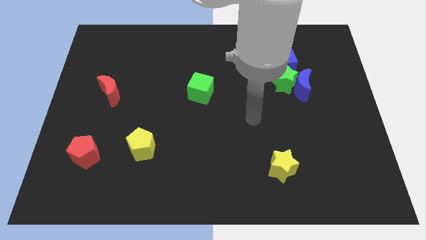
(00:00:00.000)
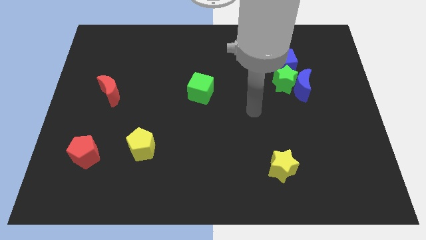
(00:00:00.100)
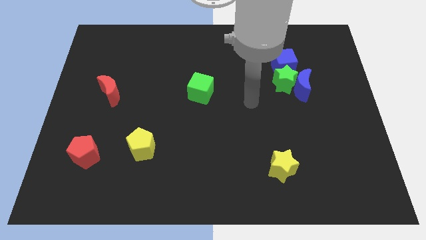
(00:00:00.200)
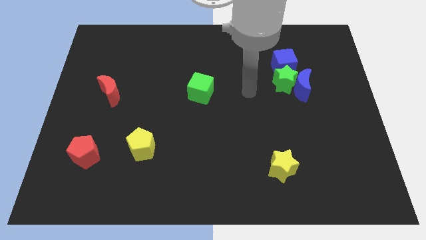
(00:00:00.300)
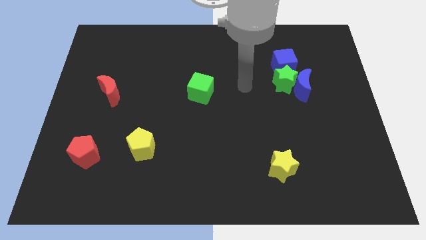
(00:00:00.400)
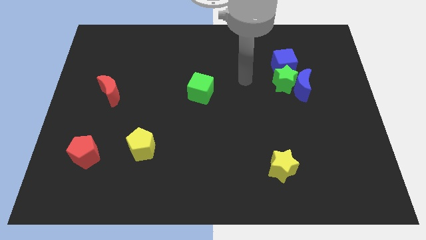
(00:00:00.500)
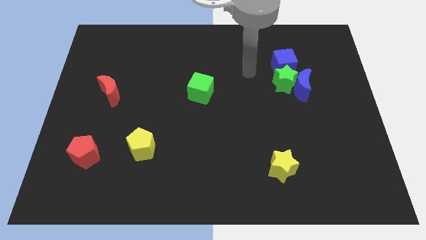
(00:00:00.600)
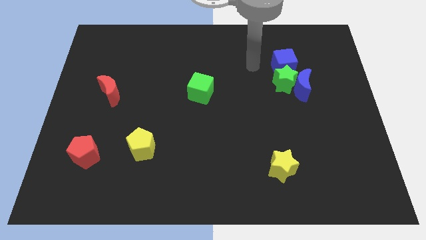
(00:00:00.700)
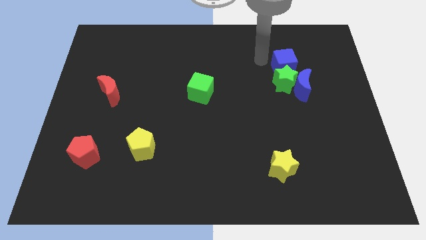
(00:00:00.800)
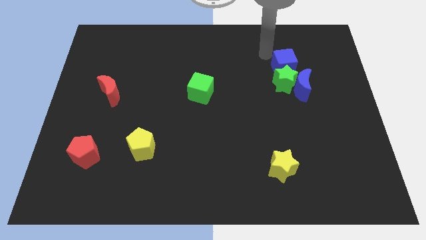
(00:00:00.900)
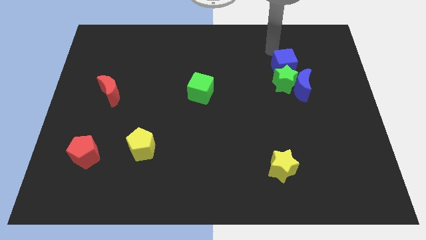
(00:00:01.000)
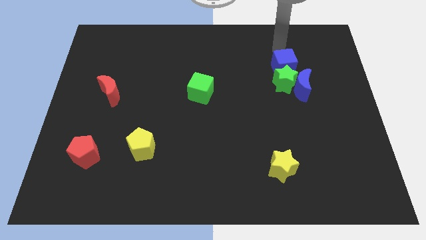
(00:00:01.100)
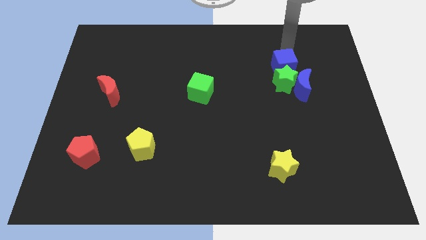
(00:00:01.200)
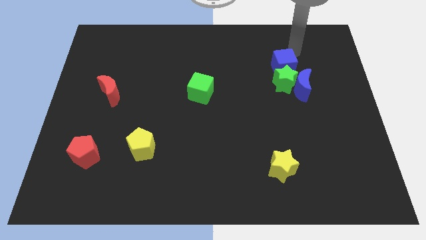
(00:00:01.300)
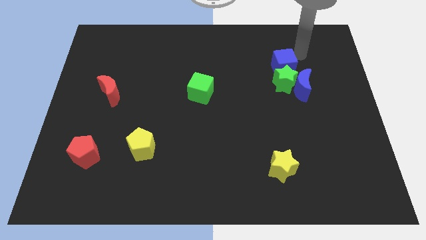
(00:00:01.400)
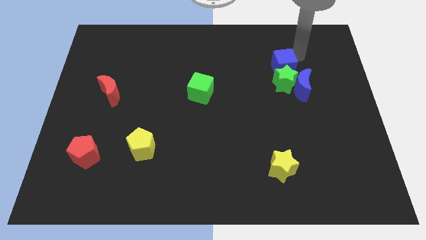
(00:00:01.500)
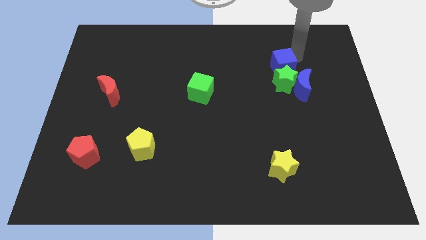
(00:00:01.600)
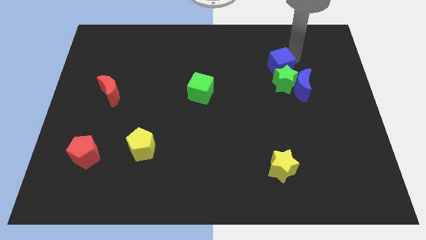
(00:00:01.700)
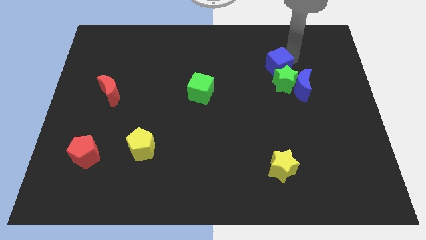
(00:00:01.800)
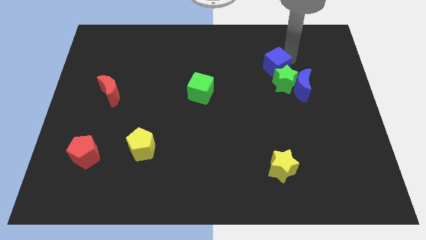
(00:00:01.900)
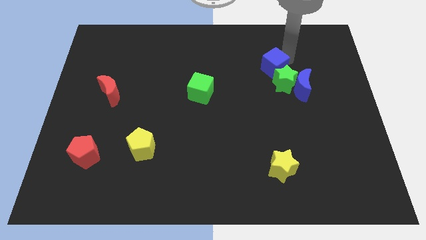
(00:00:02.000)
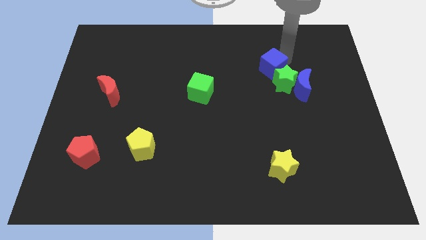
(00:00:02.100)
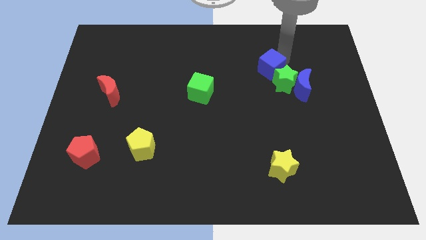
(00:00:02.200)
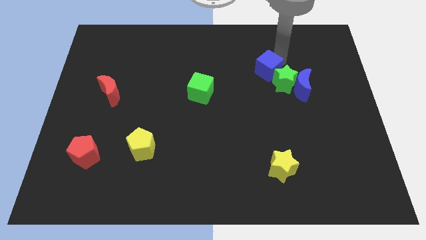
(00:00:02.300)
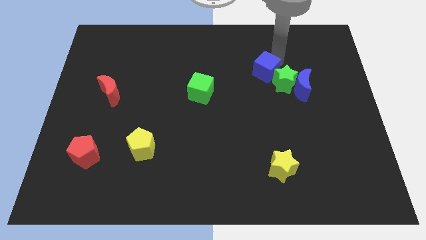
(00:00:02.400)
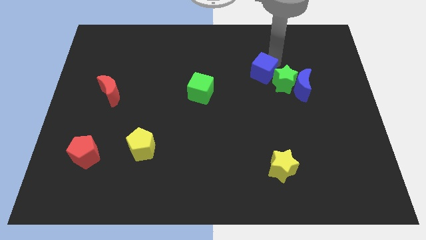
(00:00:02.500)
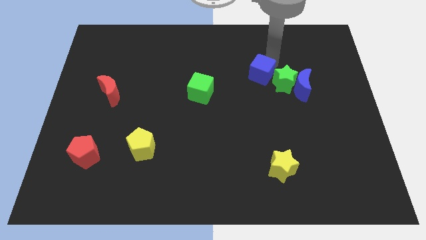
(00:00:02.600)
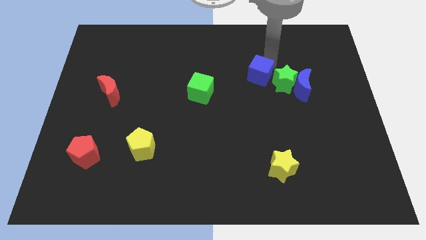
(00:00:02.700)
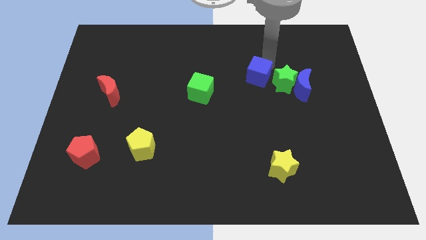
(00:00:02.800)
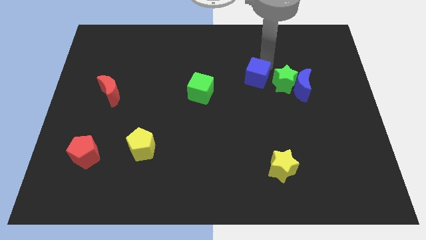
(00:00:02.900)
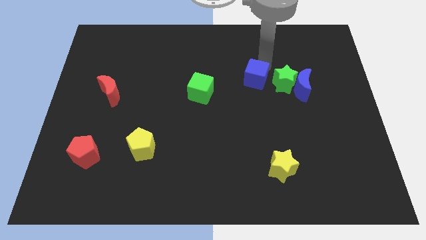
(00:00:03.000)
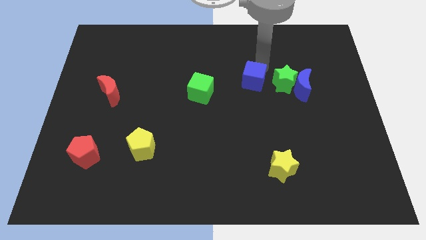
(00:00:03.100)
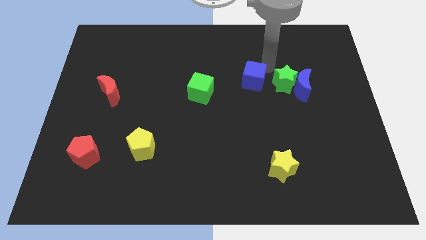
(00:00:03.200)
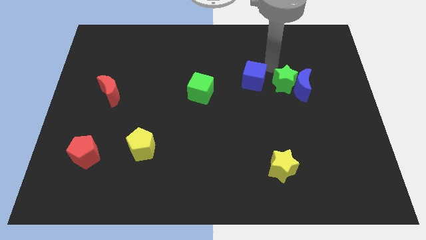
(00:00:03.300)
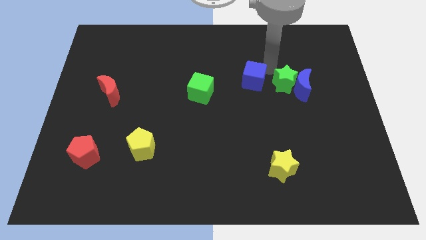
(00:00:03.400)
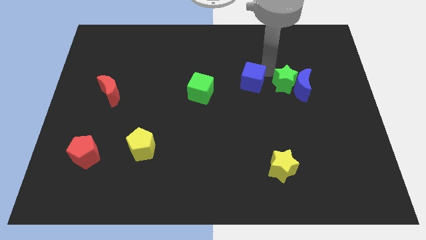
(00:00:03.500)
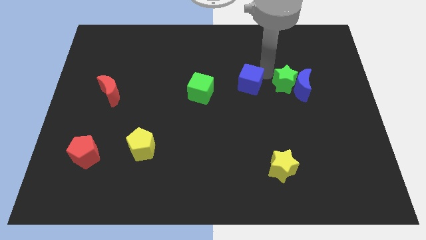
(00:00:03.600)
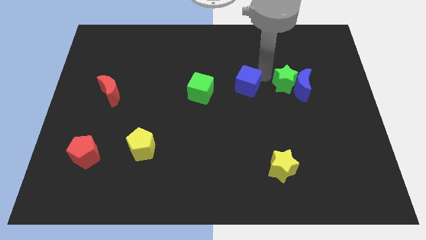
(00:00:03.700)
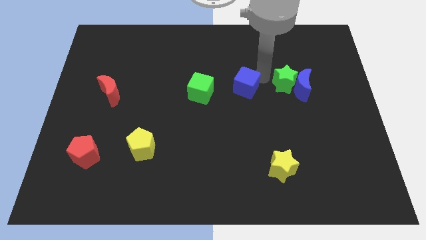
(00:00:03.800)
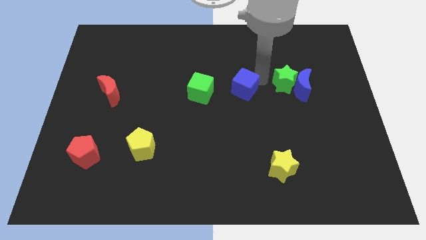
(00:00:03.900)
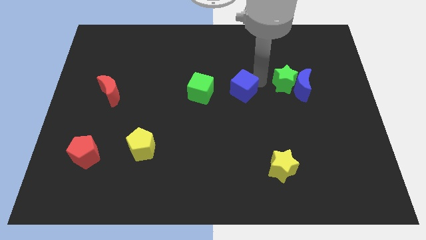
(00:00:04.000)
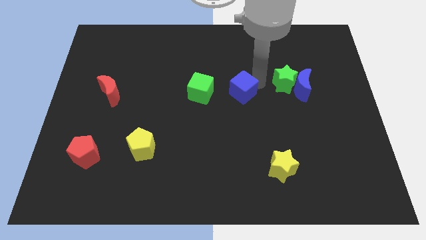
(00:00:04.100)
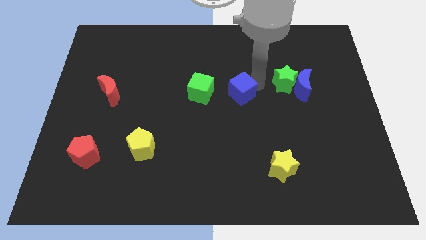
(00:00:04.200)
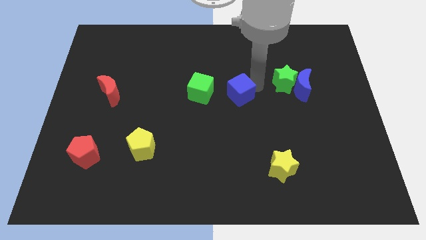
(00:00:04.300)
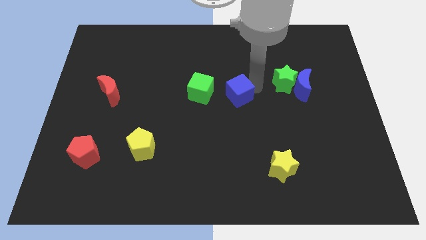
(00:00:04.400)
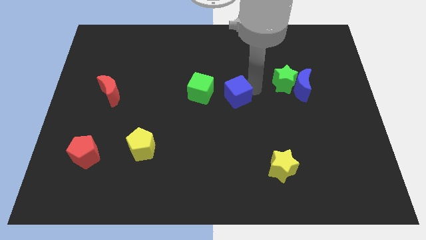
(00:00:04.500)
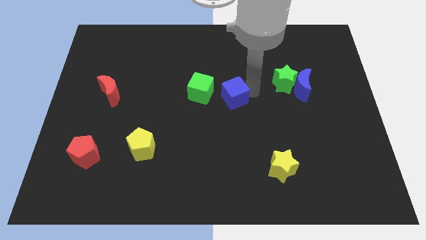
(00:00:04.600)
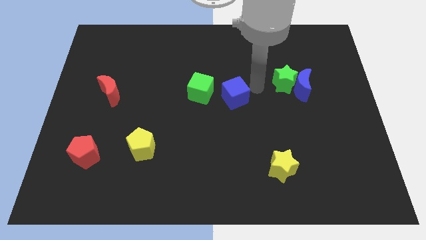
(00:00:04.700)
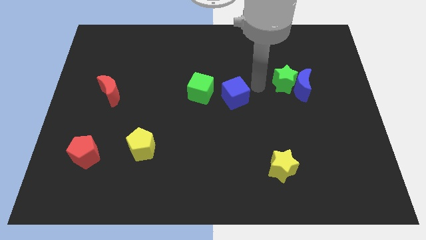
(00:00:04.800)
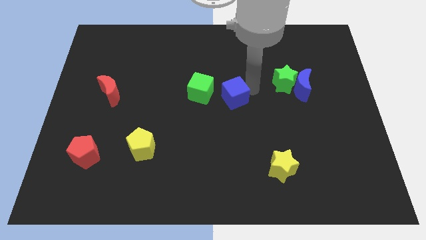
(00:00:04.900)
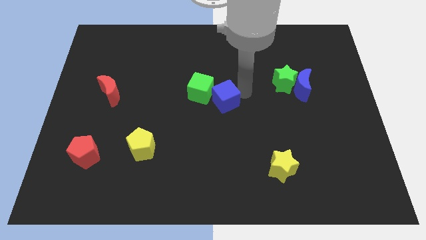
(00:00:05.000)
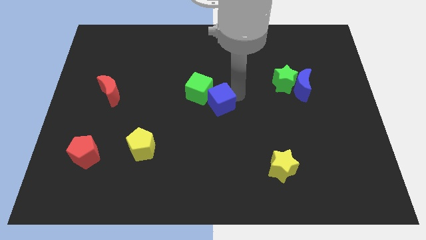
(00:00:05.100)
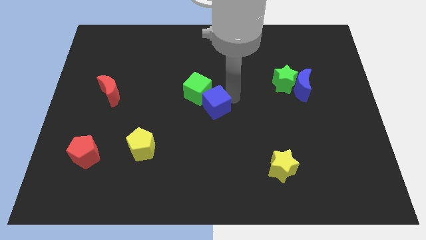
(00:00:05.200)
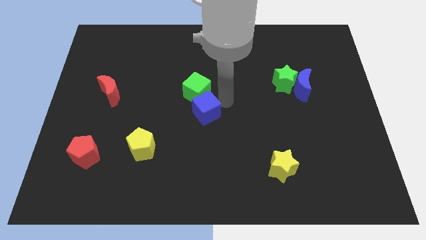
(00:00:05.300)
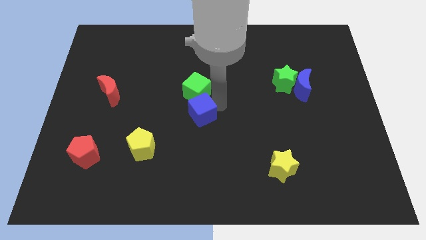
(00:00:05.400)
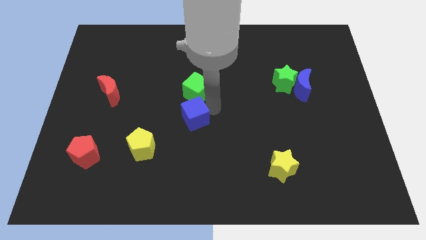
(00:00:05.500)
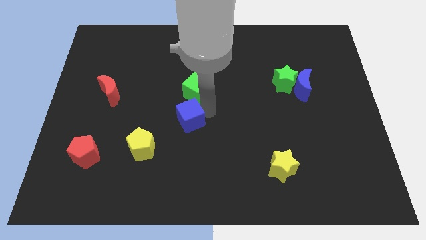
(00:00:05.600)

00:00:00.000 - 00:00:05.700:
slide the blue cube to the top right side of the yellow pentagon
